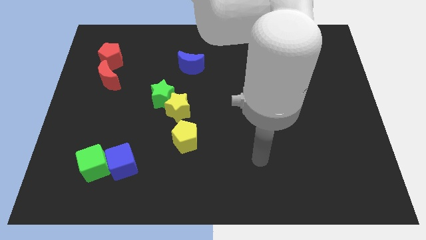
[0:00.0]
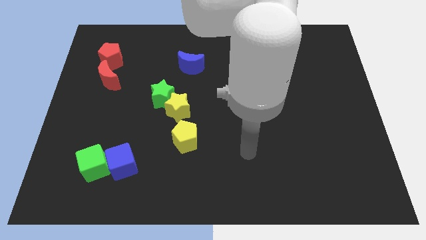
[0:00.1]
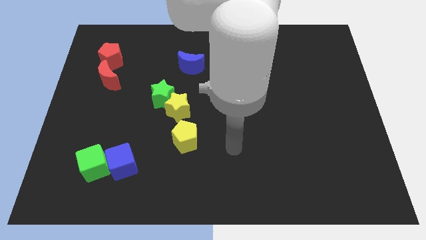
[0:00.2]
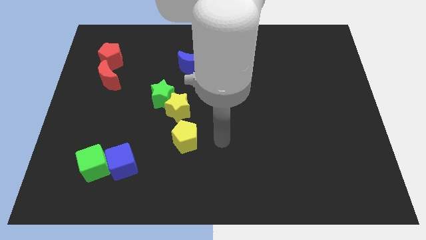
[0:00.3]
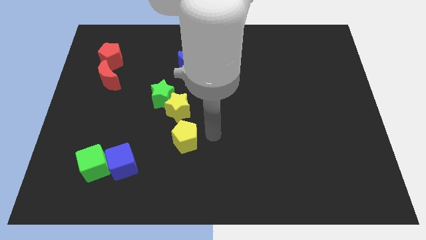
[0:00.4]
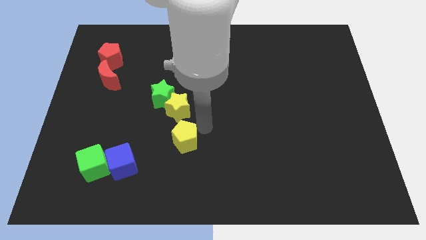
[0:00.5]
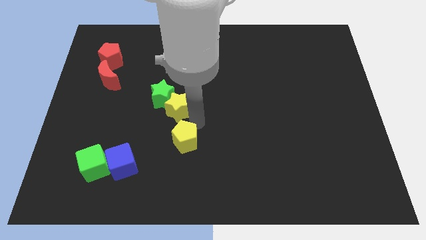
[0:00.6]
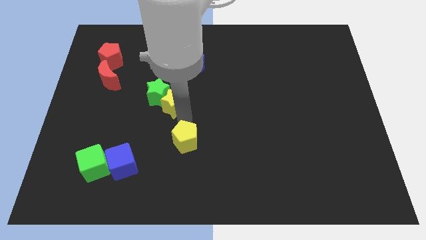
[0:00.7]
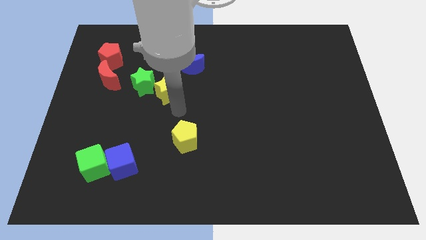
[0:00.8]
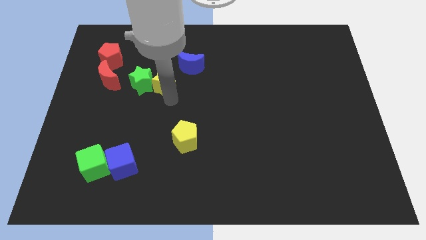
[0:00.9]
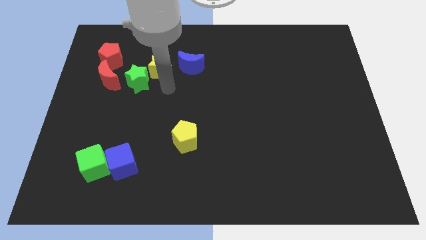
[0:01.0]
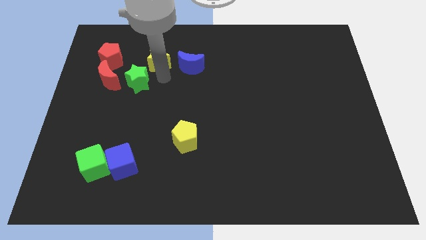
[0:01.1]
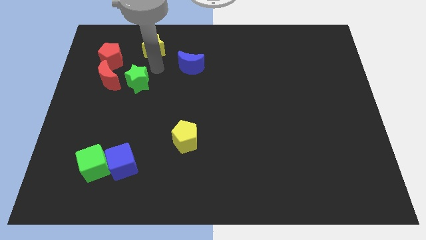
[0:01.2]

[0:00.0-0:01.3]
pull the green star apart from the yellow star

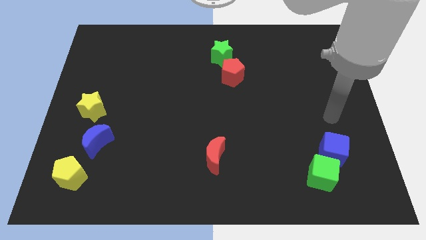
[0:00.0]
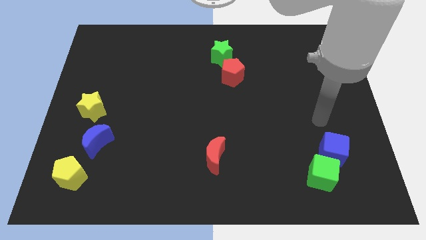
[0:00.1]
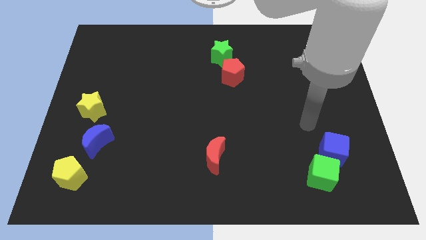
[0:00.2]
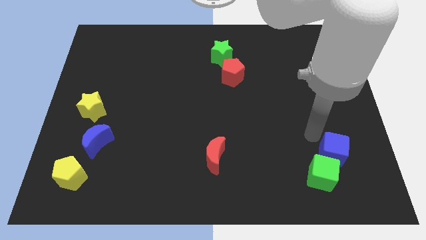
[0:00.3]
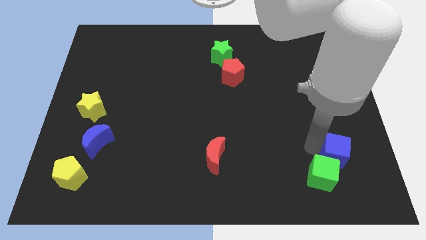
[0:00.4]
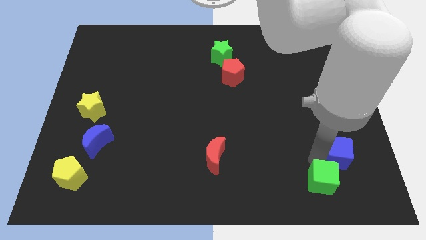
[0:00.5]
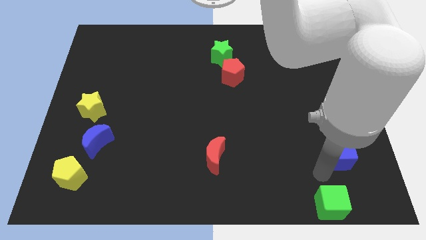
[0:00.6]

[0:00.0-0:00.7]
move the blue cube away from the green cube

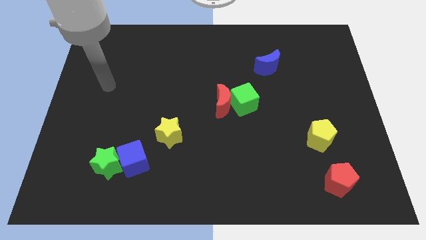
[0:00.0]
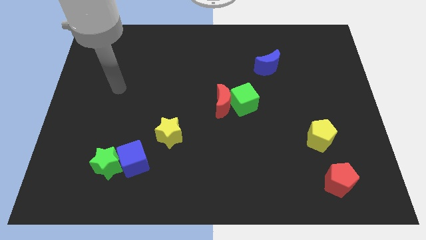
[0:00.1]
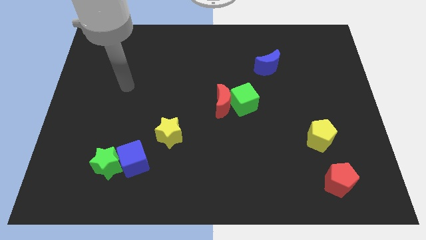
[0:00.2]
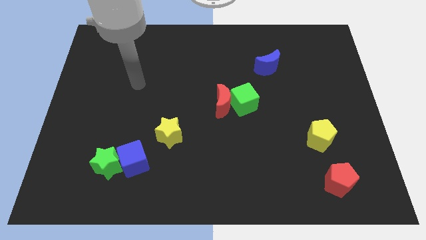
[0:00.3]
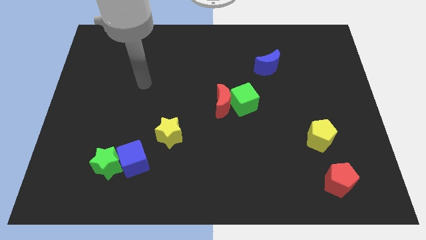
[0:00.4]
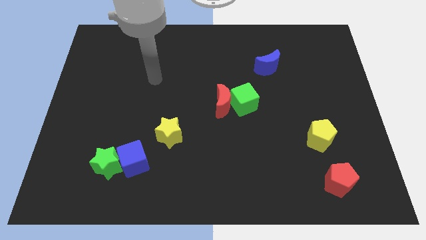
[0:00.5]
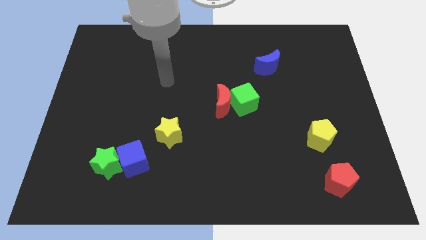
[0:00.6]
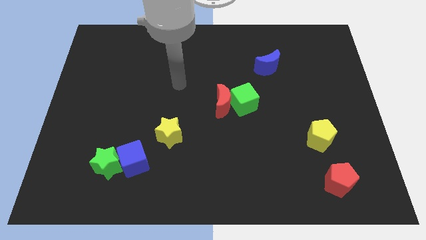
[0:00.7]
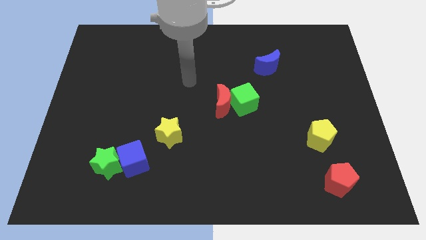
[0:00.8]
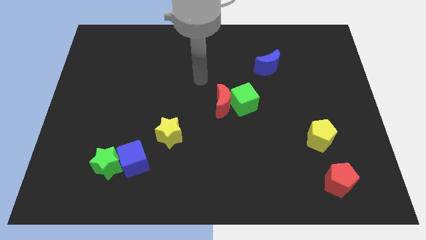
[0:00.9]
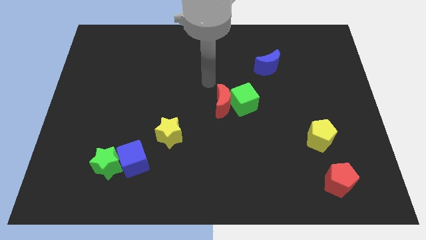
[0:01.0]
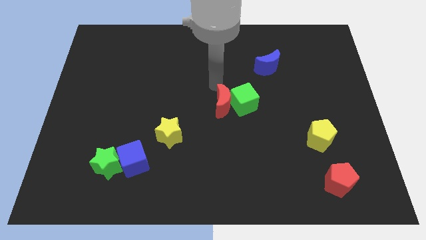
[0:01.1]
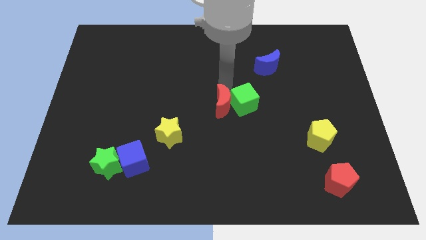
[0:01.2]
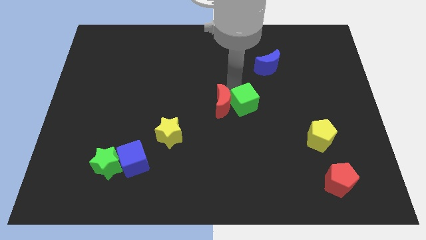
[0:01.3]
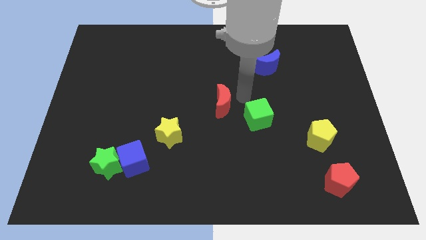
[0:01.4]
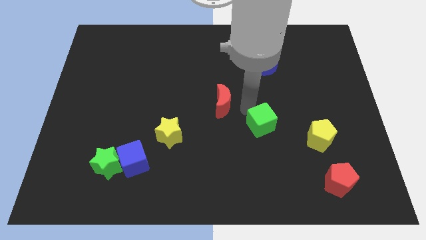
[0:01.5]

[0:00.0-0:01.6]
separate the red moon from the green cube

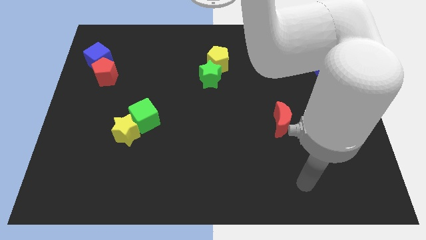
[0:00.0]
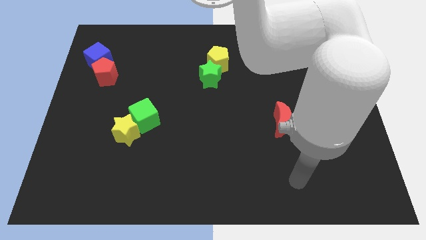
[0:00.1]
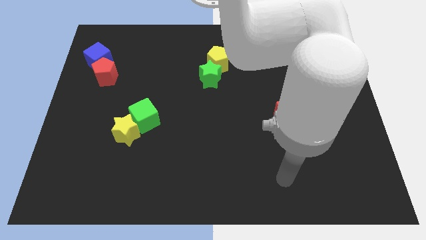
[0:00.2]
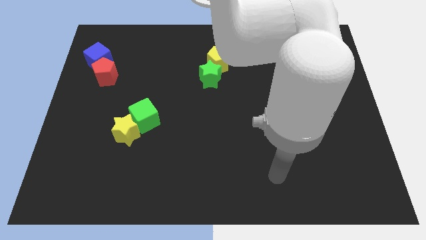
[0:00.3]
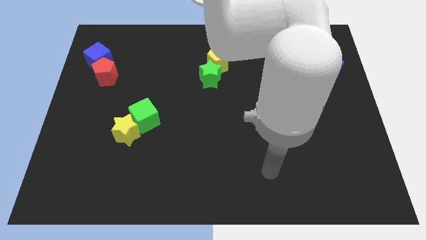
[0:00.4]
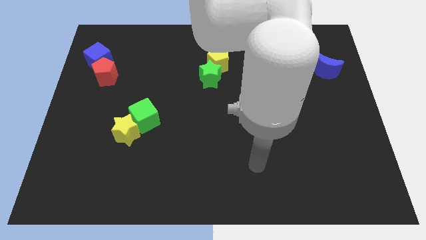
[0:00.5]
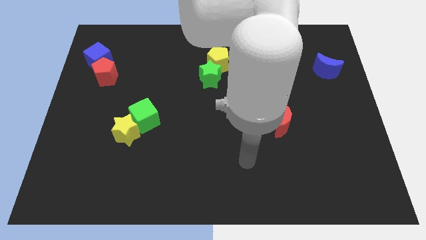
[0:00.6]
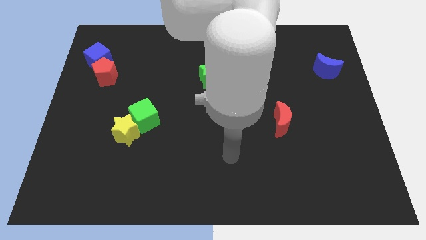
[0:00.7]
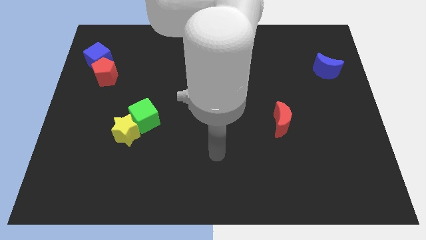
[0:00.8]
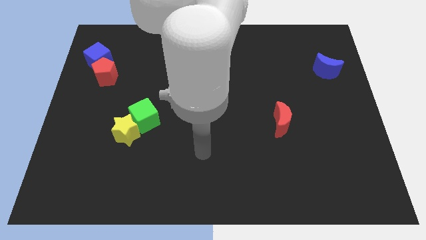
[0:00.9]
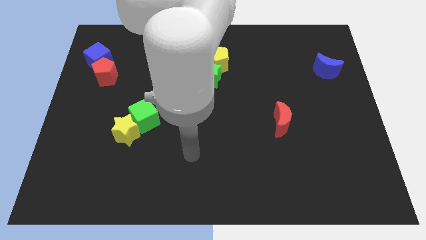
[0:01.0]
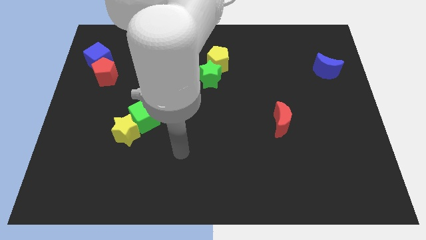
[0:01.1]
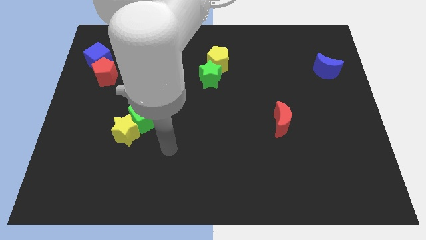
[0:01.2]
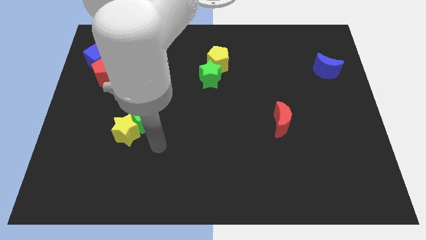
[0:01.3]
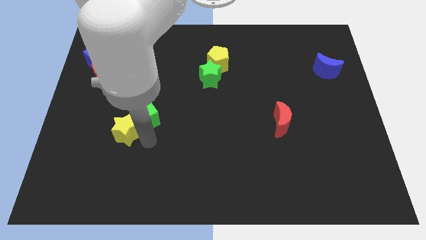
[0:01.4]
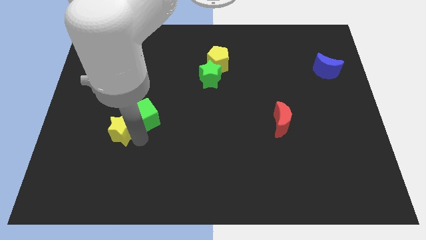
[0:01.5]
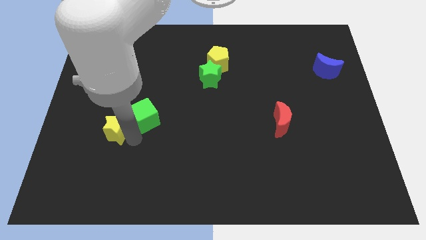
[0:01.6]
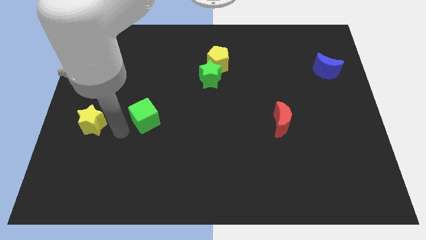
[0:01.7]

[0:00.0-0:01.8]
separate the green cube from the yellow star

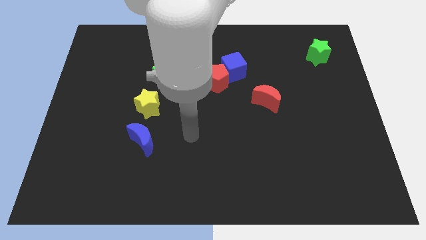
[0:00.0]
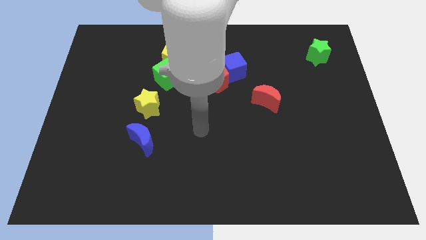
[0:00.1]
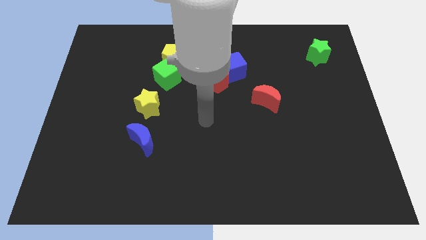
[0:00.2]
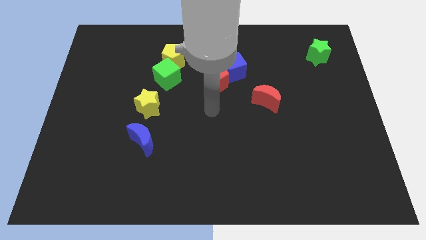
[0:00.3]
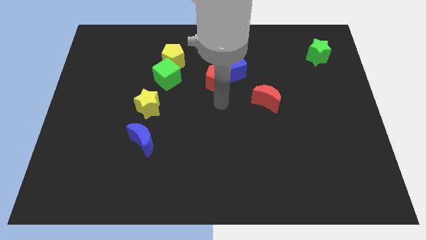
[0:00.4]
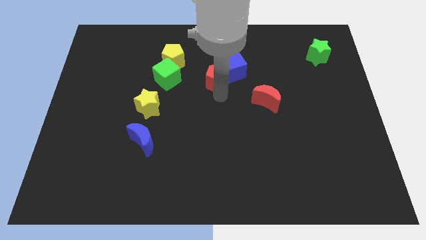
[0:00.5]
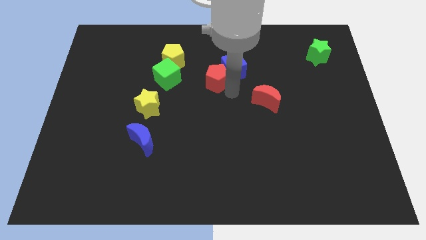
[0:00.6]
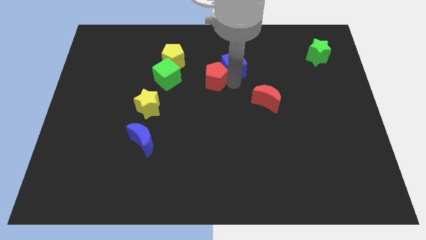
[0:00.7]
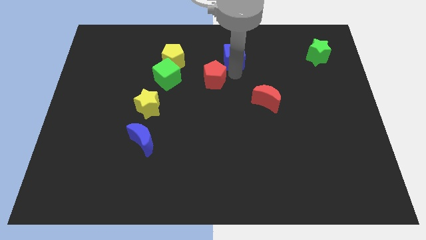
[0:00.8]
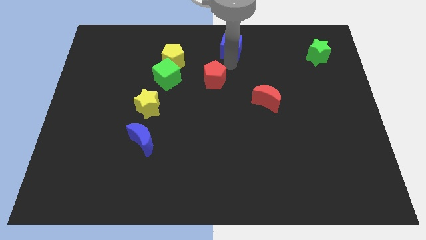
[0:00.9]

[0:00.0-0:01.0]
separate the red pentagon from the blue cube

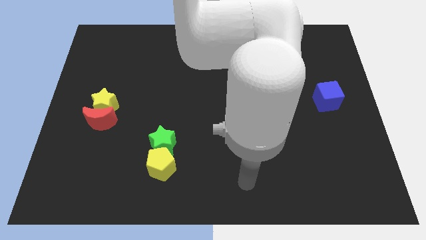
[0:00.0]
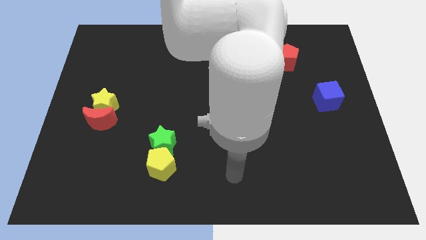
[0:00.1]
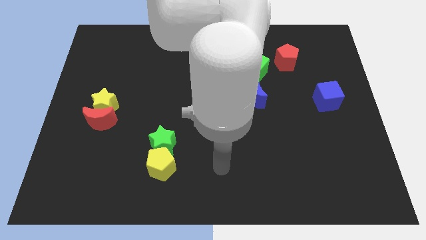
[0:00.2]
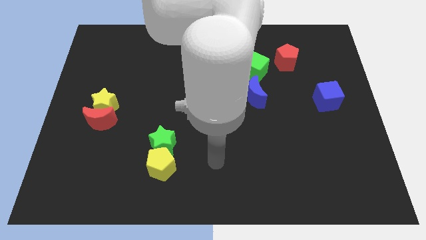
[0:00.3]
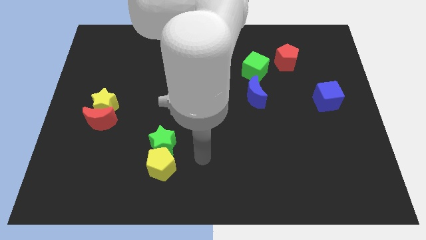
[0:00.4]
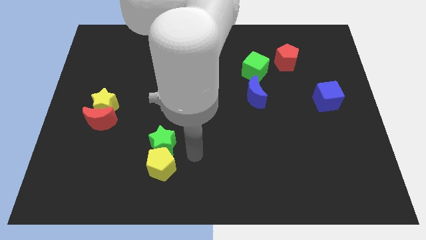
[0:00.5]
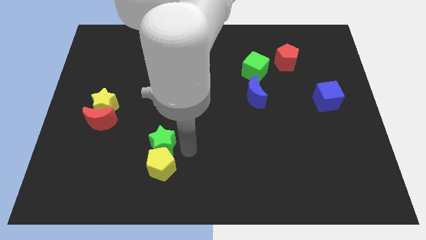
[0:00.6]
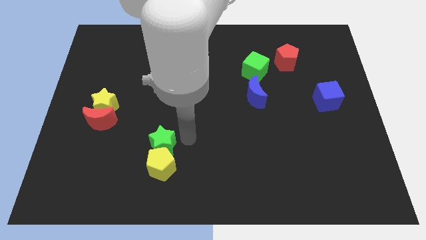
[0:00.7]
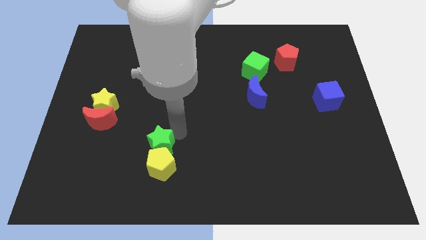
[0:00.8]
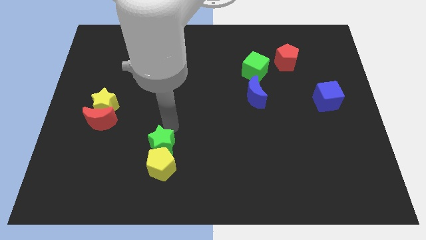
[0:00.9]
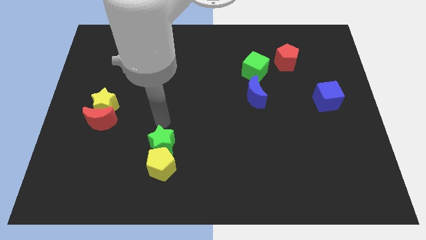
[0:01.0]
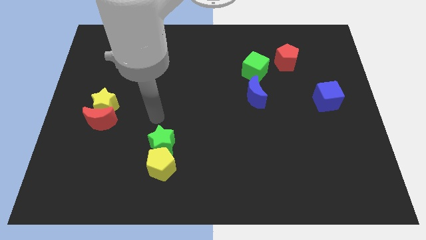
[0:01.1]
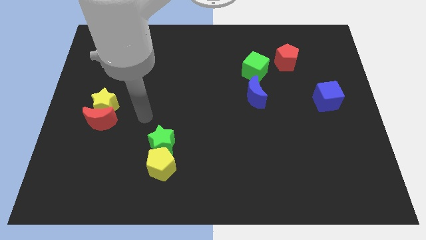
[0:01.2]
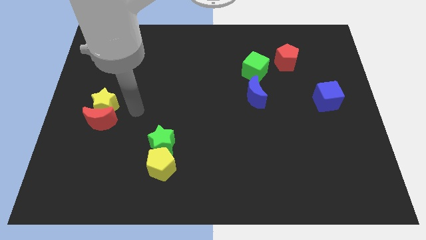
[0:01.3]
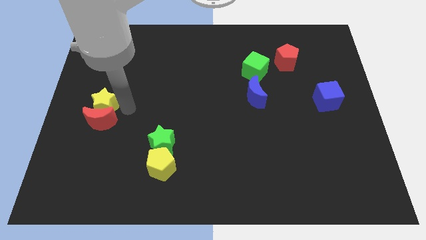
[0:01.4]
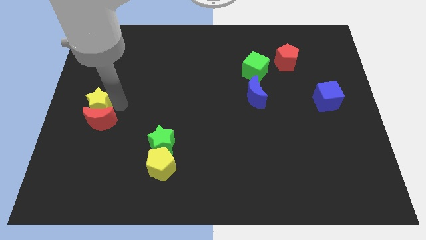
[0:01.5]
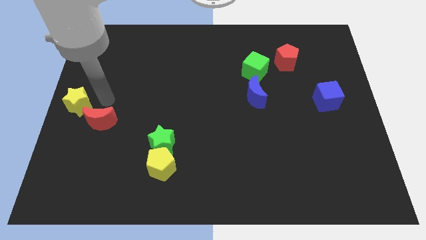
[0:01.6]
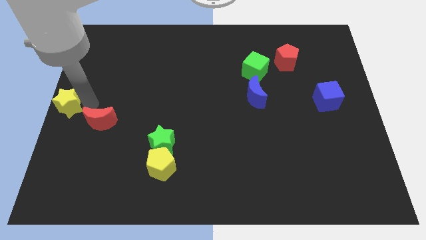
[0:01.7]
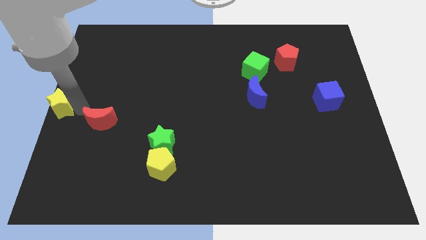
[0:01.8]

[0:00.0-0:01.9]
move the red moon away from the yellow star

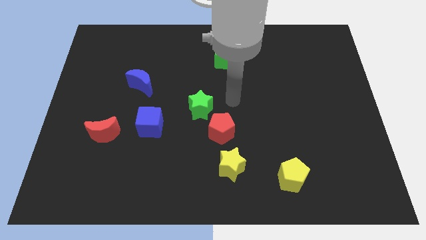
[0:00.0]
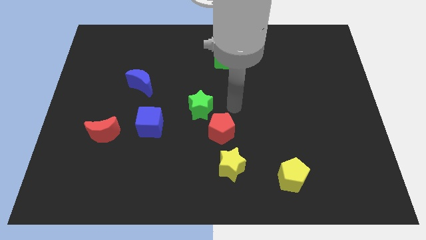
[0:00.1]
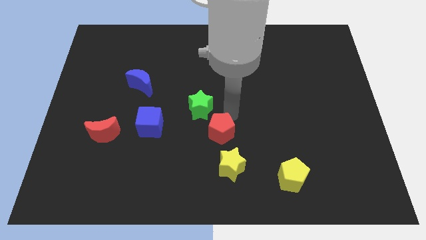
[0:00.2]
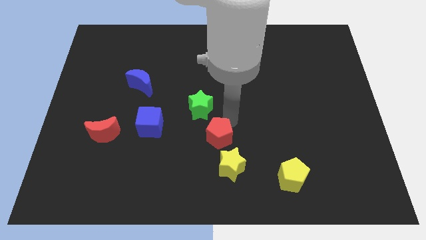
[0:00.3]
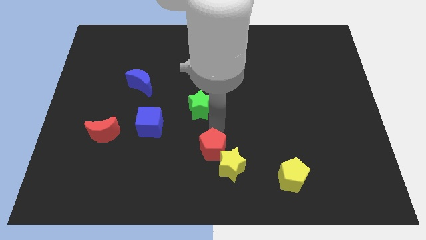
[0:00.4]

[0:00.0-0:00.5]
move the green star away from the red pentagon

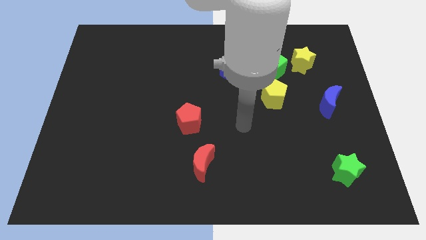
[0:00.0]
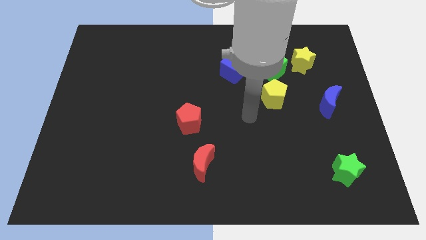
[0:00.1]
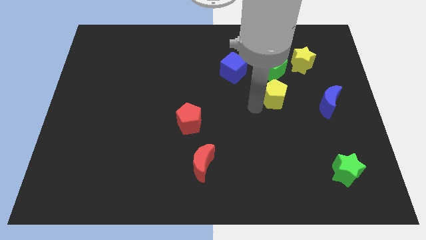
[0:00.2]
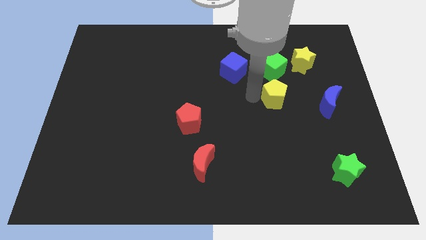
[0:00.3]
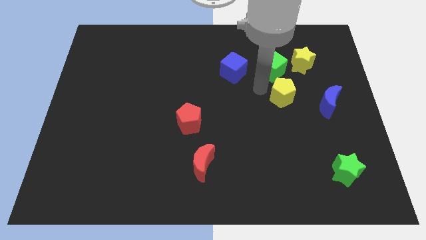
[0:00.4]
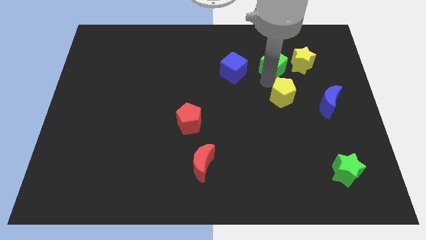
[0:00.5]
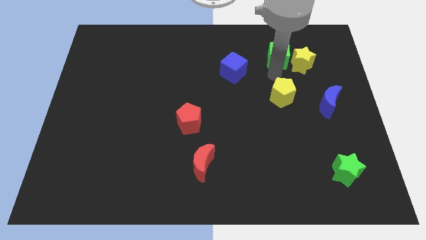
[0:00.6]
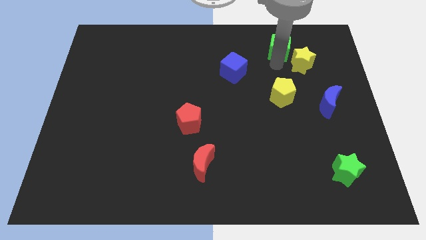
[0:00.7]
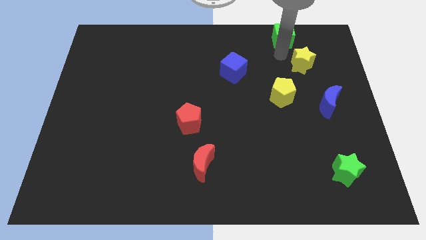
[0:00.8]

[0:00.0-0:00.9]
move the yellow star away from the green cube
